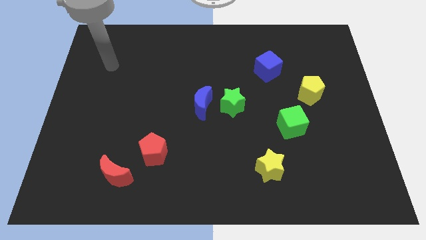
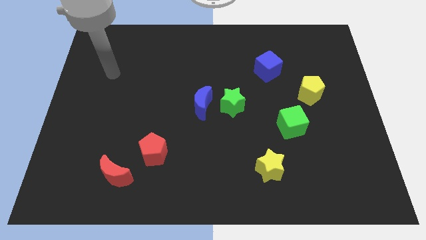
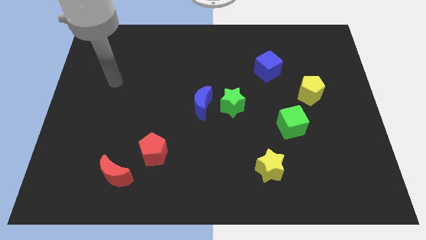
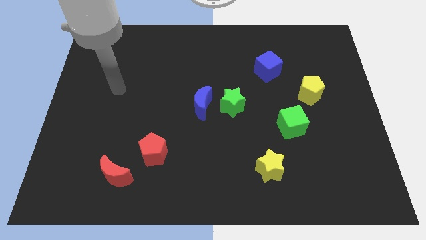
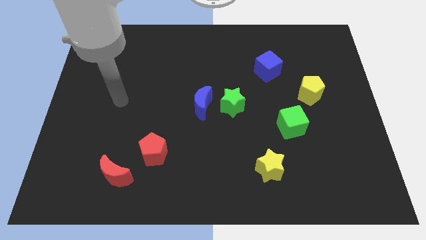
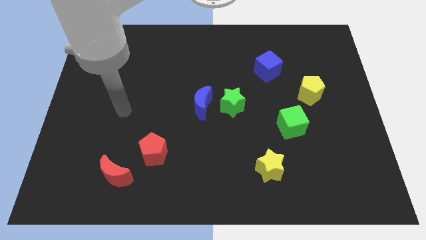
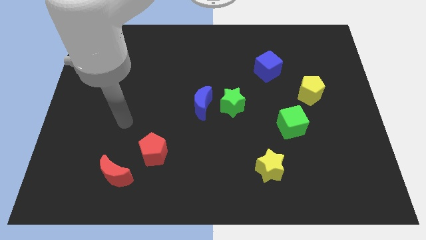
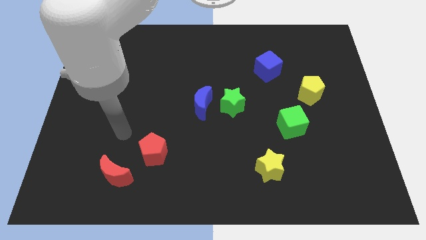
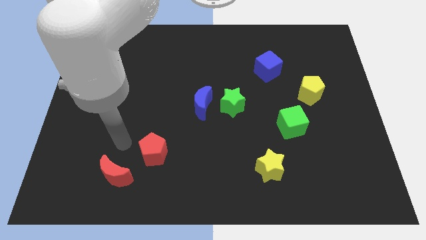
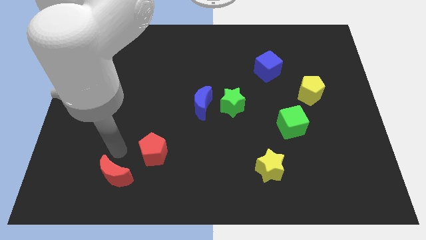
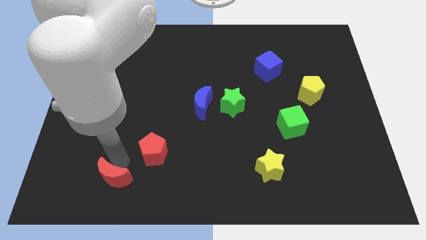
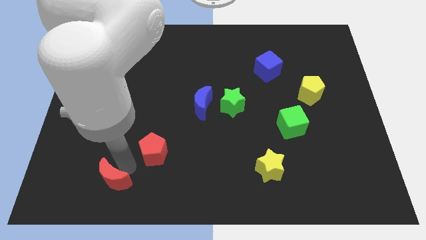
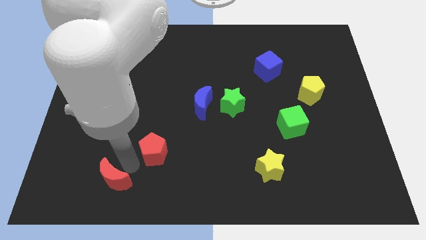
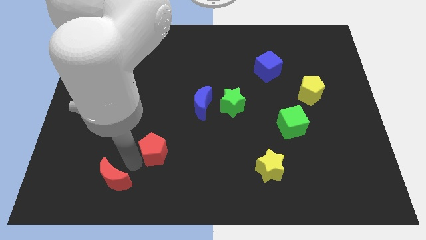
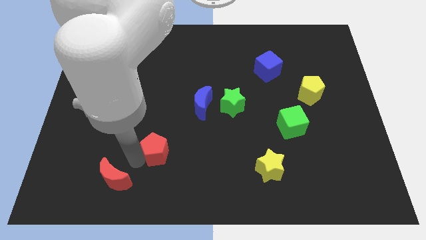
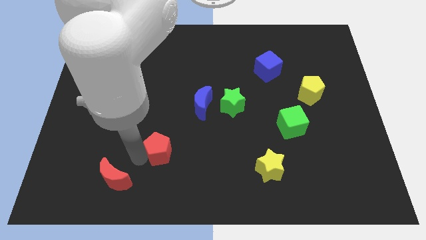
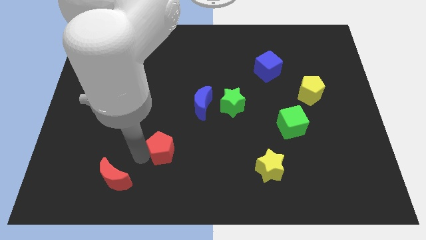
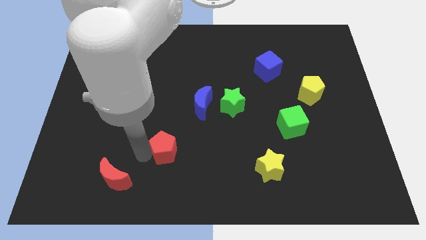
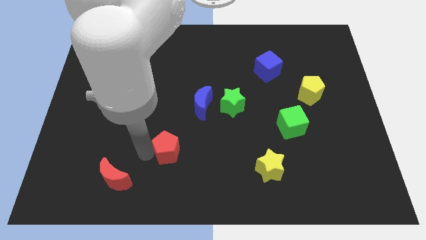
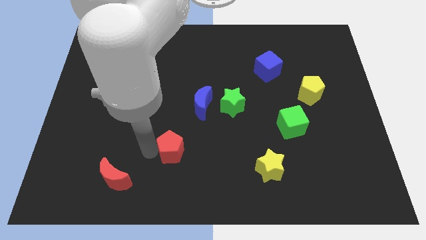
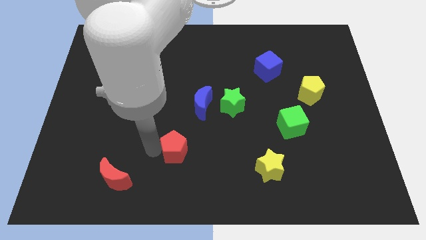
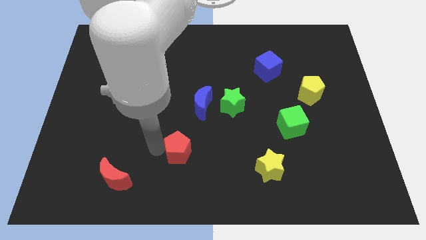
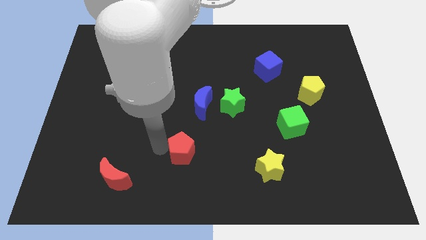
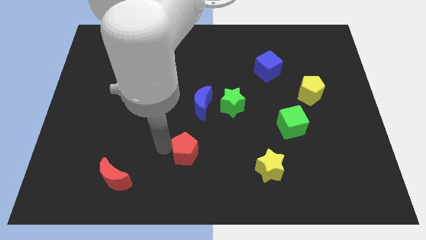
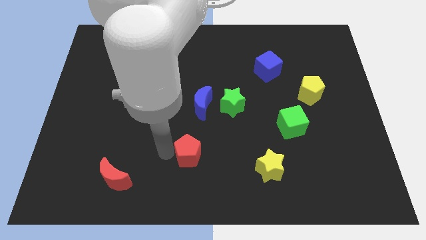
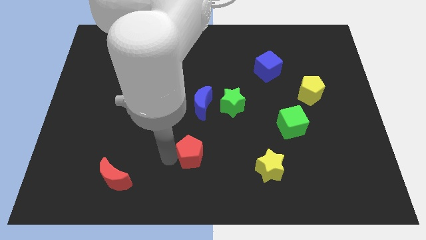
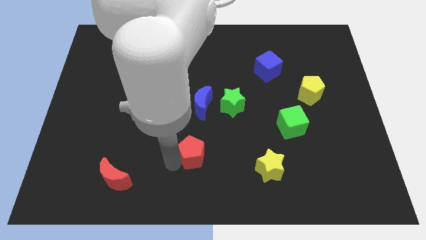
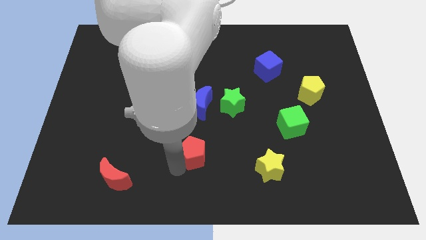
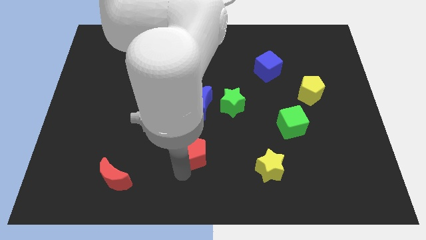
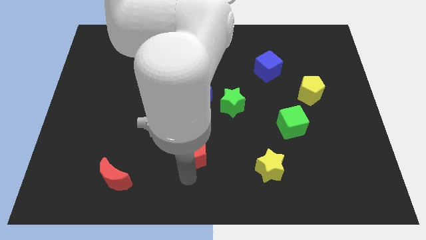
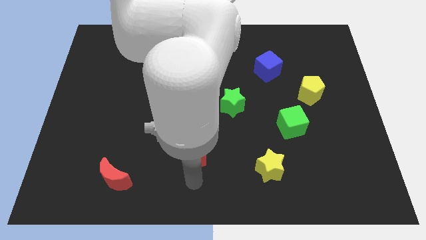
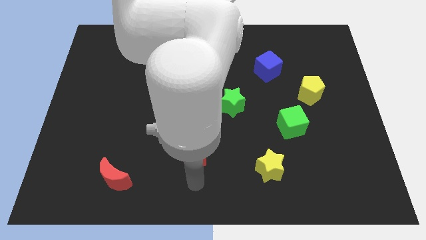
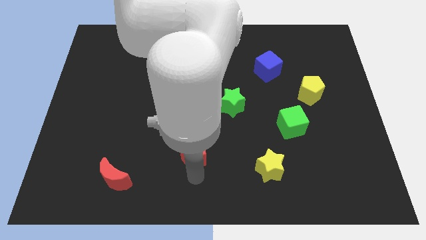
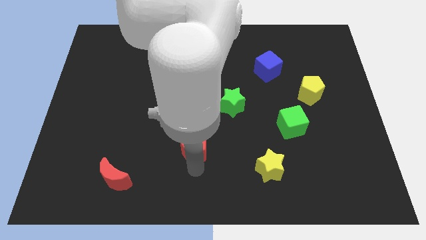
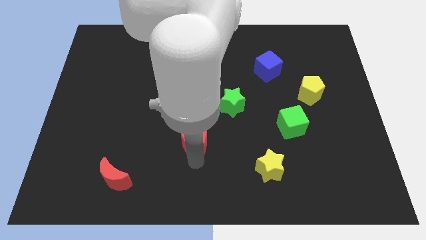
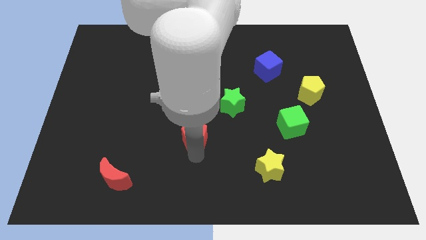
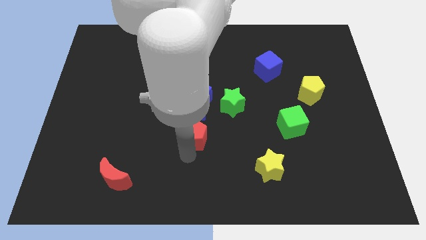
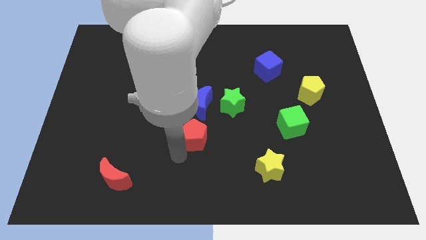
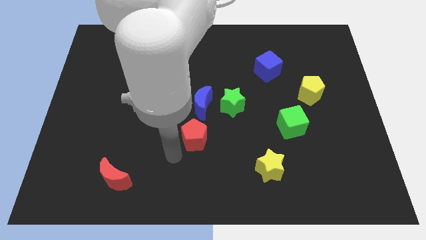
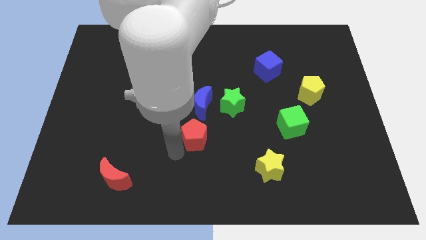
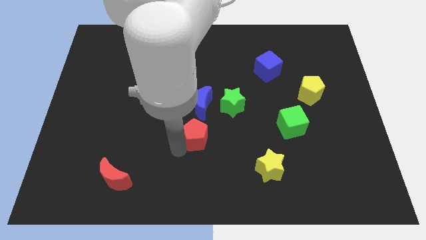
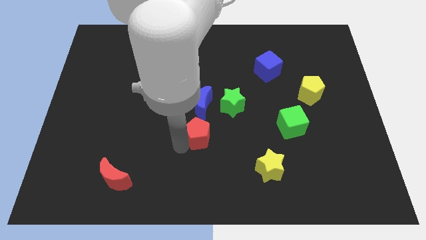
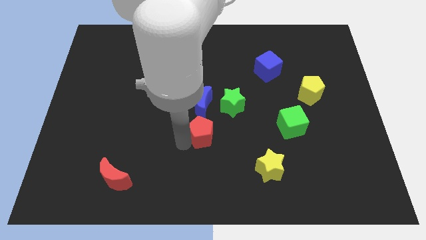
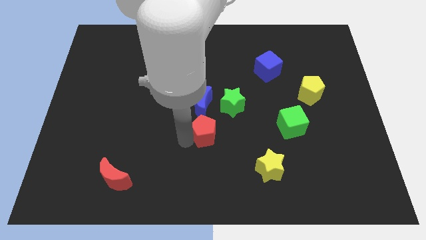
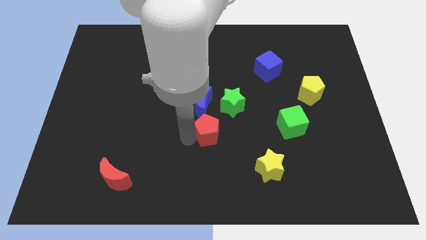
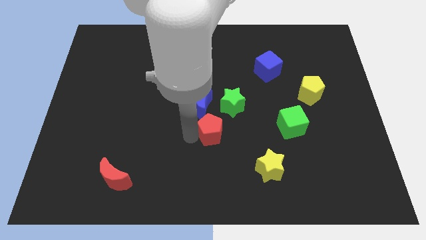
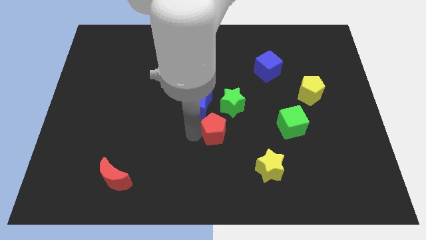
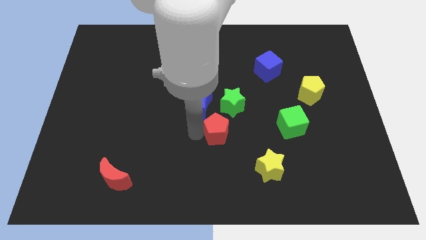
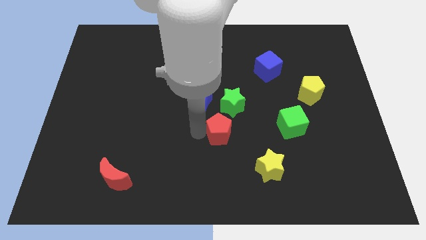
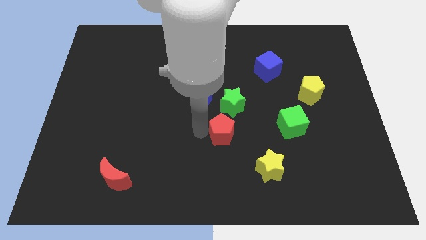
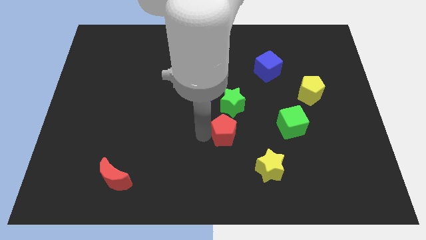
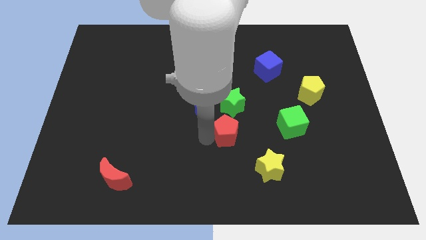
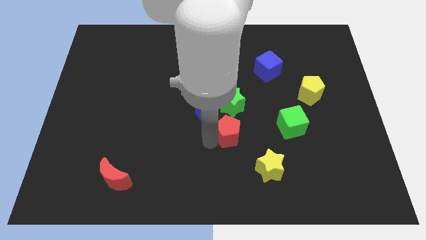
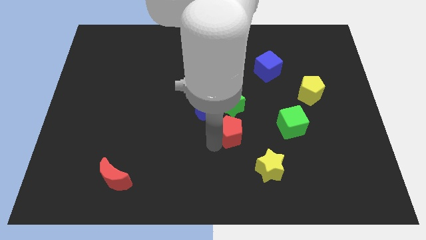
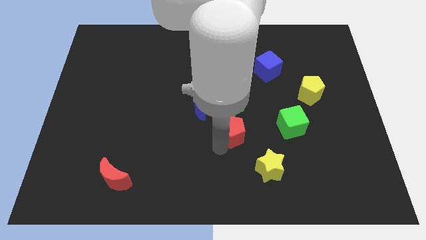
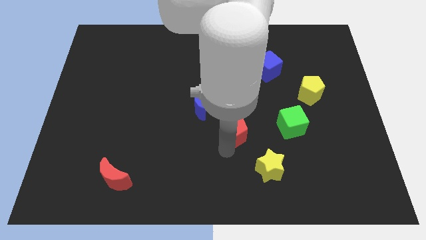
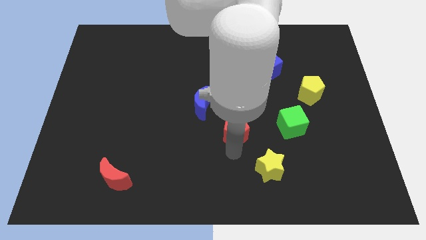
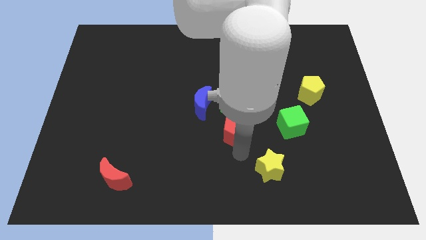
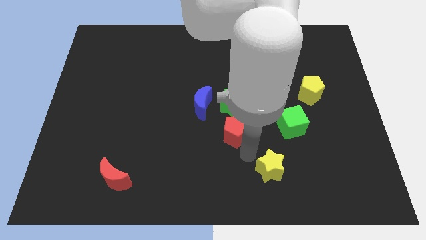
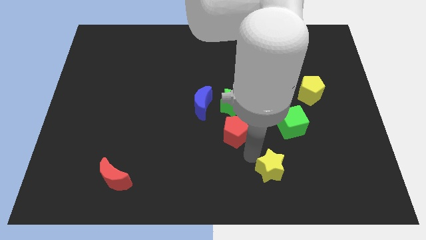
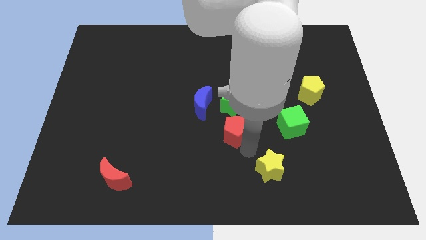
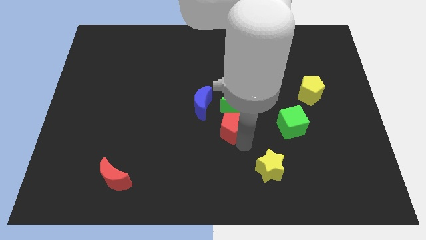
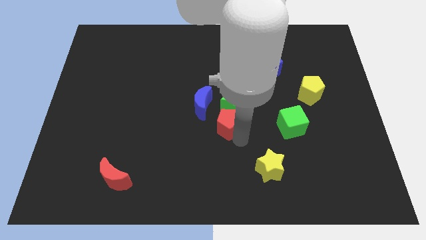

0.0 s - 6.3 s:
put the red pentagon to the green star

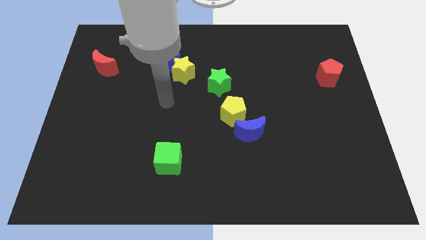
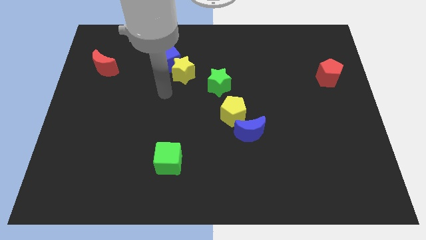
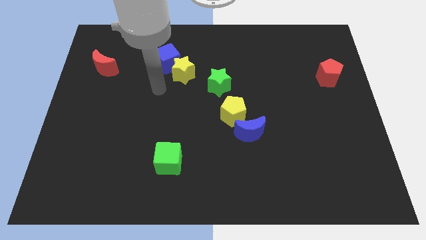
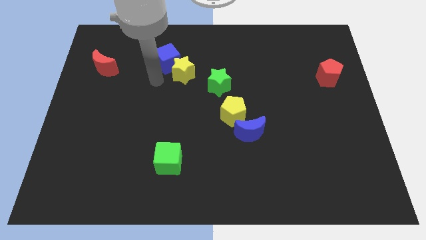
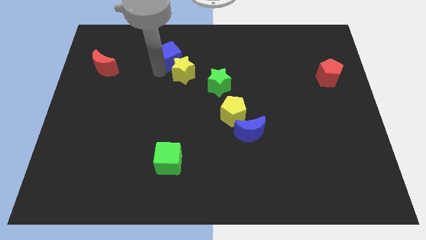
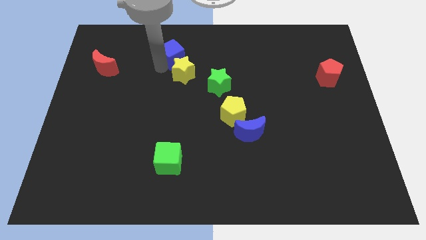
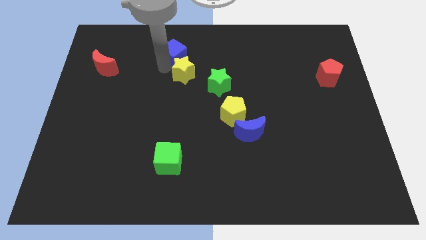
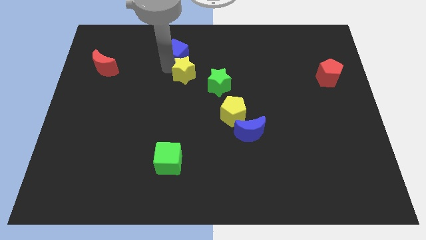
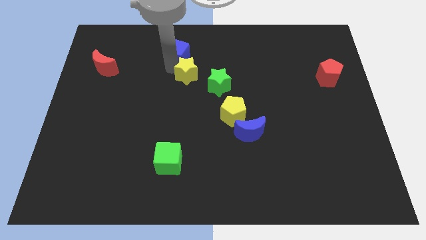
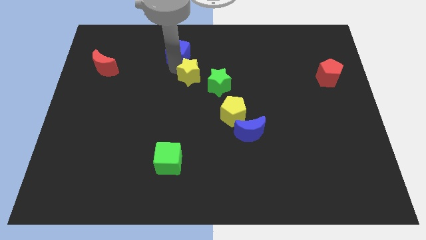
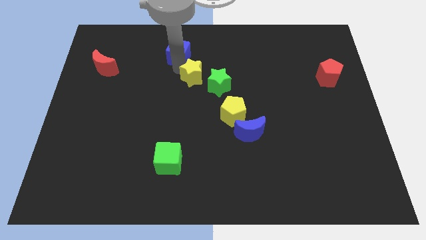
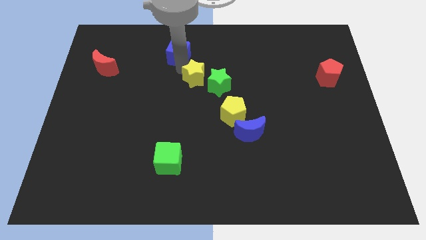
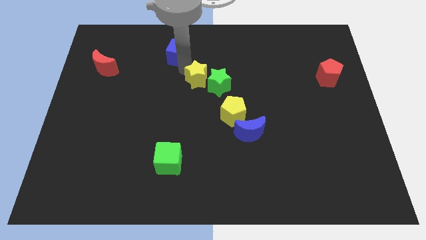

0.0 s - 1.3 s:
move the yellow star towards the green star
